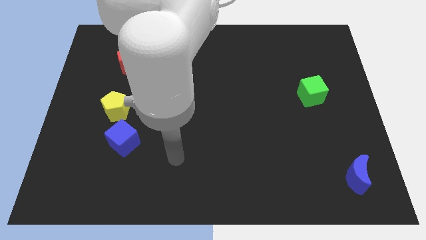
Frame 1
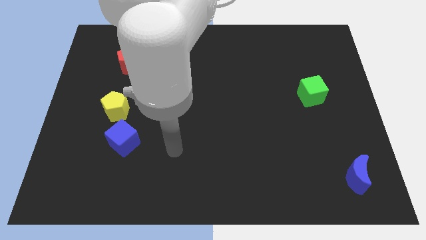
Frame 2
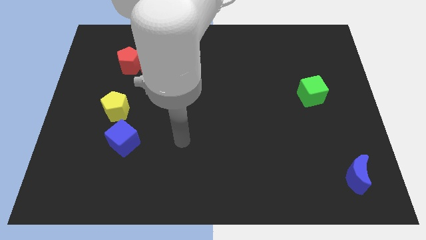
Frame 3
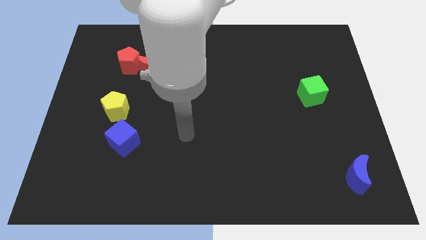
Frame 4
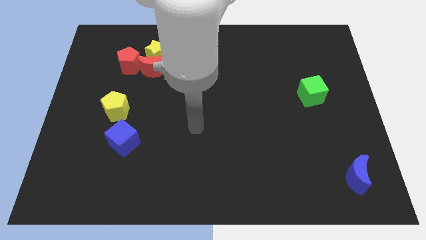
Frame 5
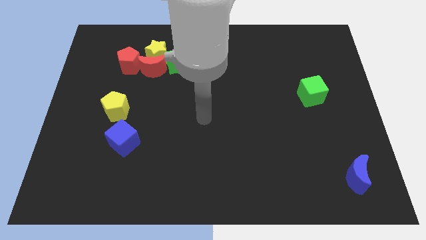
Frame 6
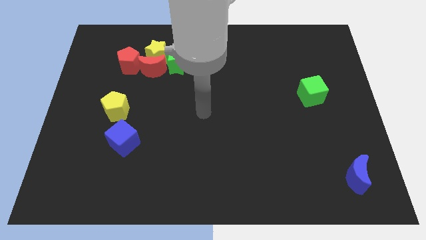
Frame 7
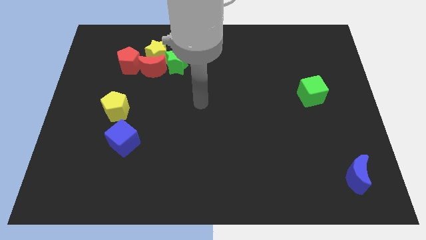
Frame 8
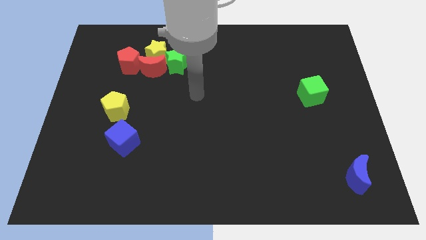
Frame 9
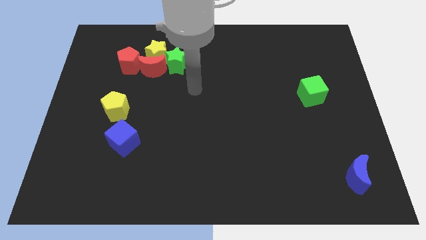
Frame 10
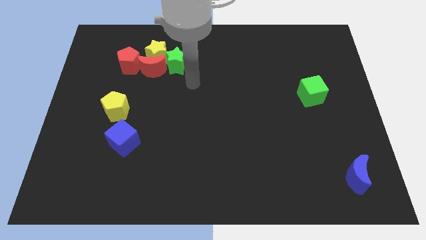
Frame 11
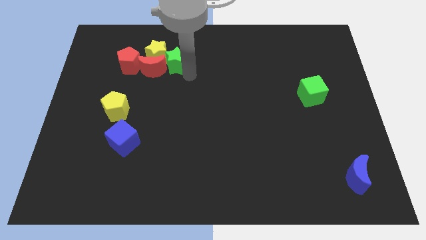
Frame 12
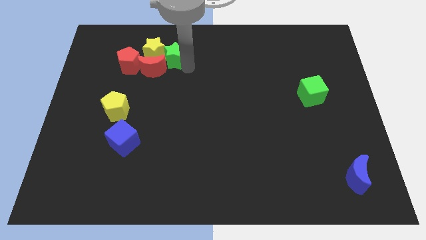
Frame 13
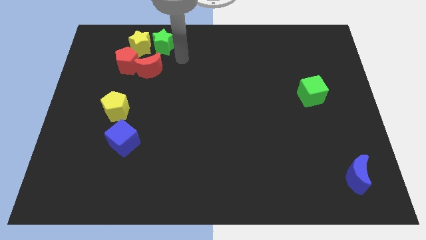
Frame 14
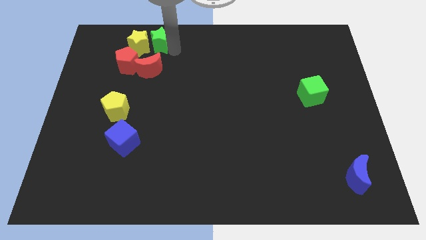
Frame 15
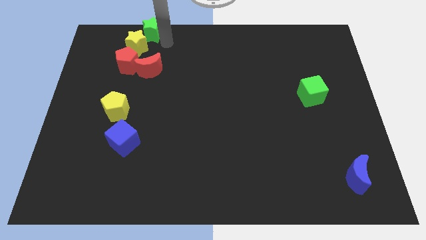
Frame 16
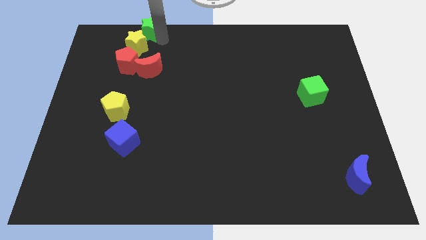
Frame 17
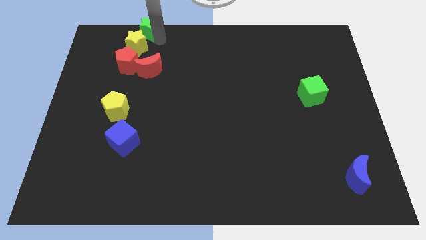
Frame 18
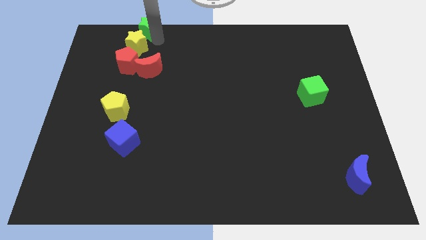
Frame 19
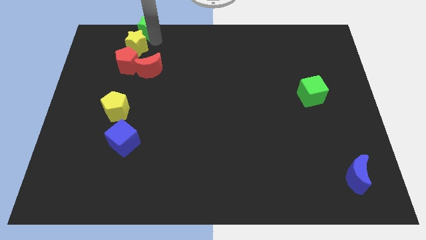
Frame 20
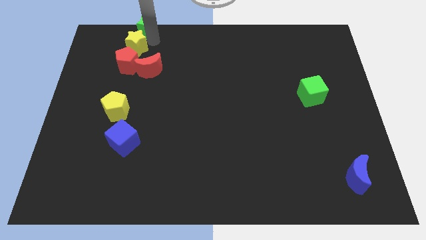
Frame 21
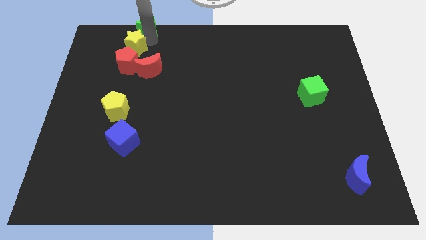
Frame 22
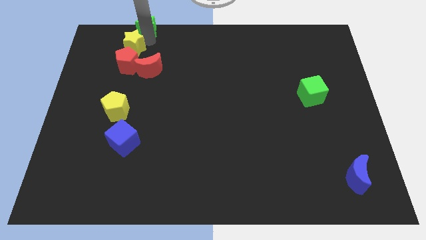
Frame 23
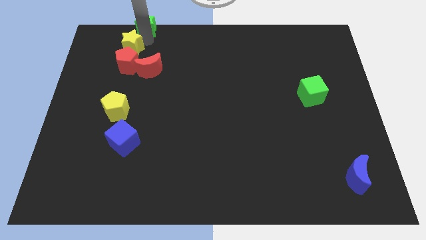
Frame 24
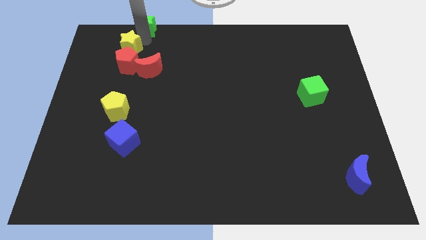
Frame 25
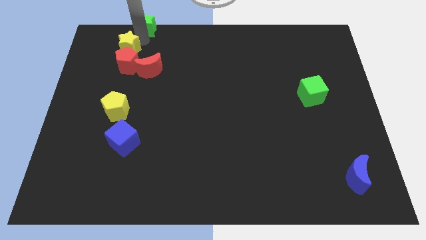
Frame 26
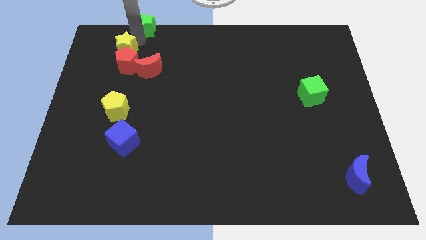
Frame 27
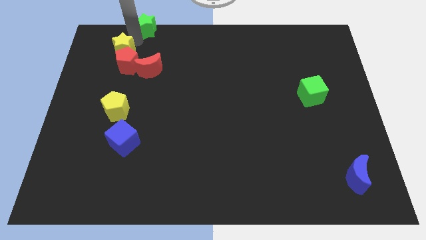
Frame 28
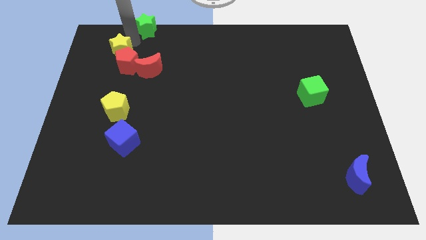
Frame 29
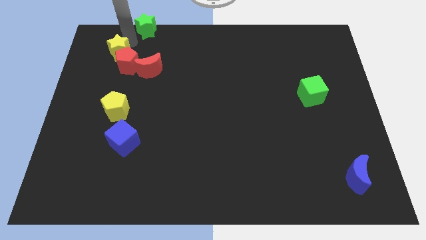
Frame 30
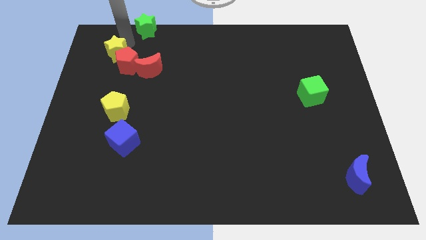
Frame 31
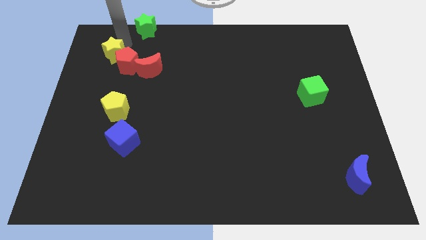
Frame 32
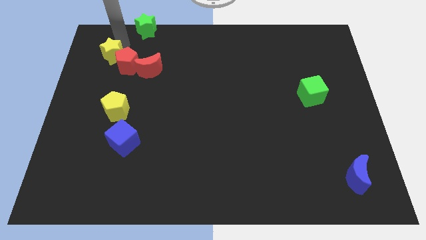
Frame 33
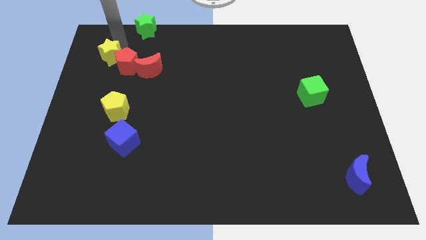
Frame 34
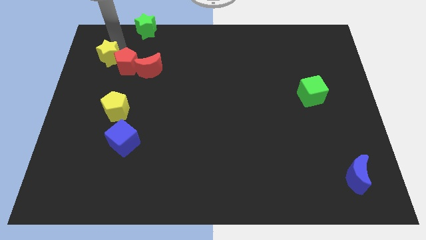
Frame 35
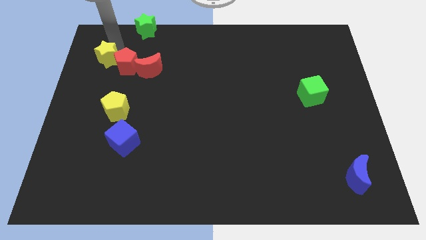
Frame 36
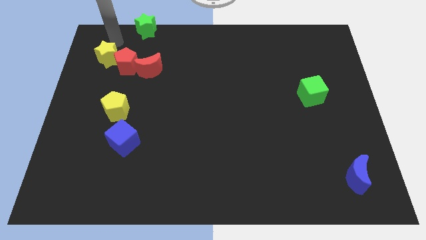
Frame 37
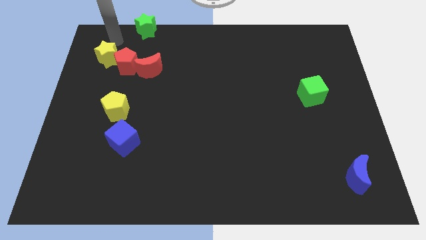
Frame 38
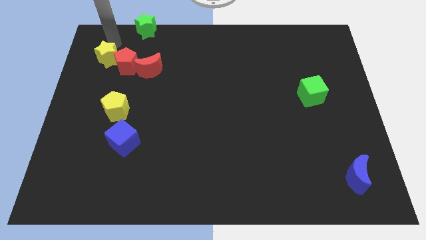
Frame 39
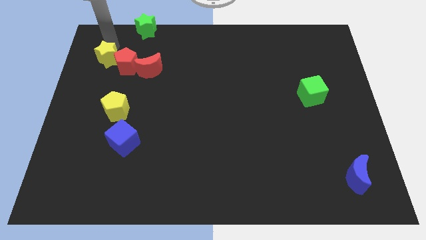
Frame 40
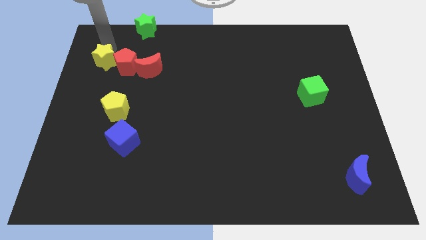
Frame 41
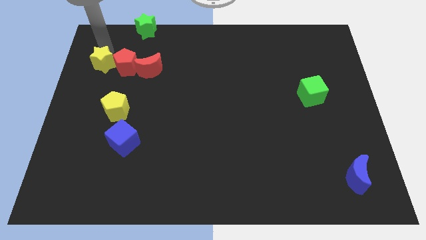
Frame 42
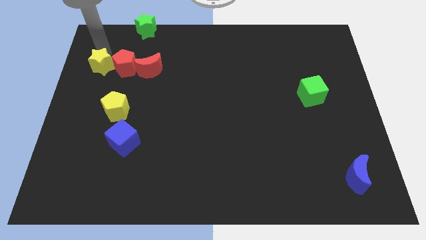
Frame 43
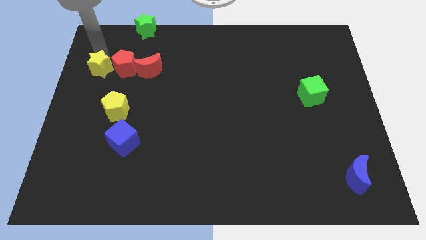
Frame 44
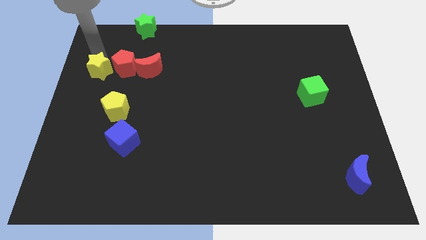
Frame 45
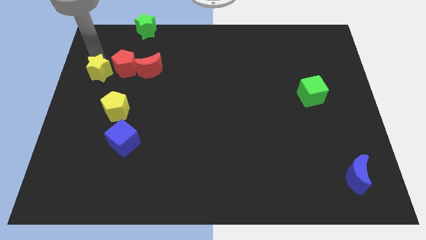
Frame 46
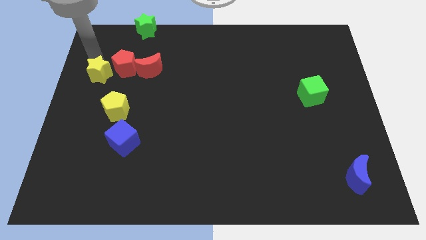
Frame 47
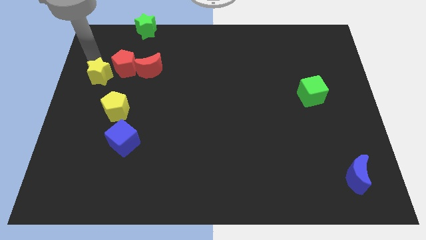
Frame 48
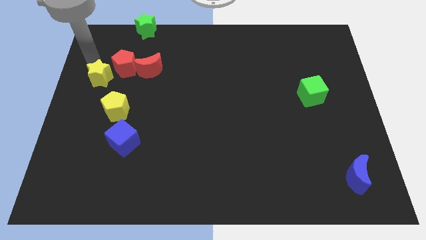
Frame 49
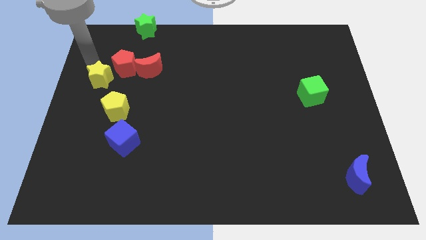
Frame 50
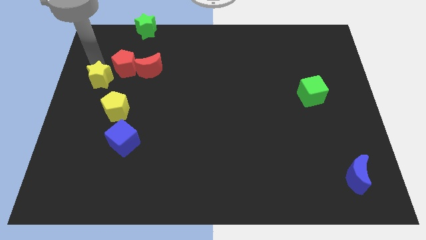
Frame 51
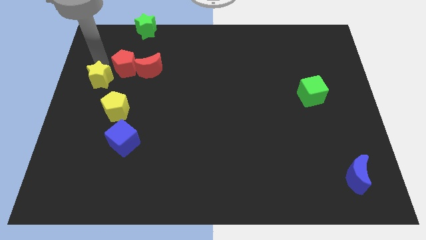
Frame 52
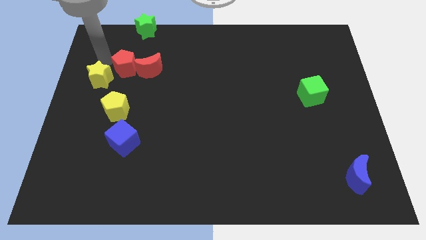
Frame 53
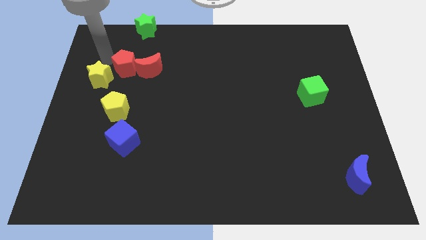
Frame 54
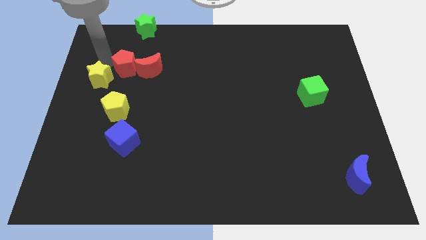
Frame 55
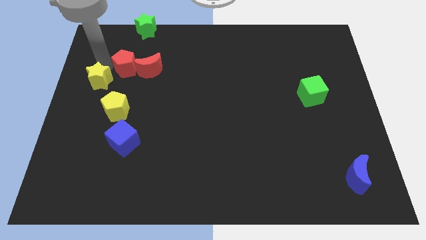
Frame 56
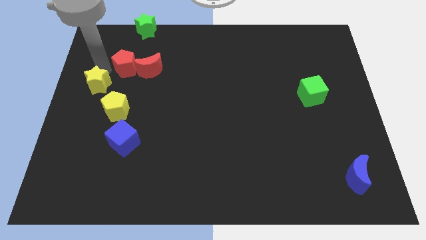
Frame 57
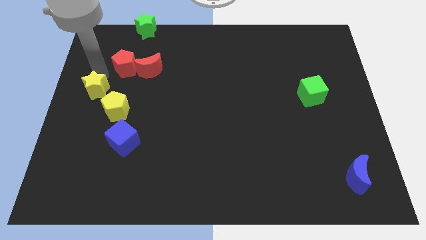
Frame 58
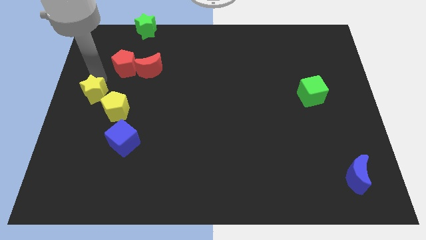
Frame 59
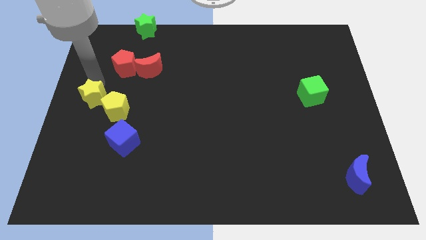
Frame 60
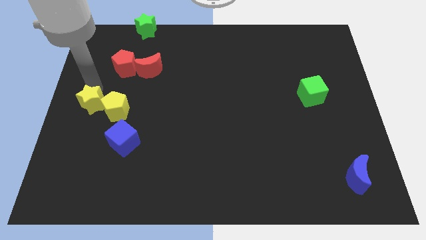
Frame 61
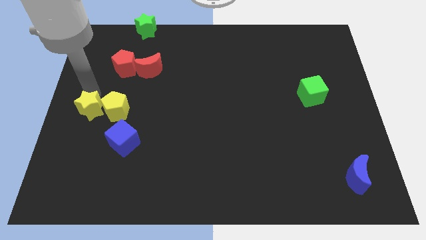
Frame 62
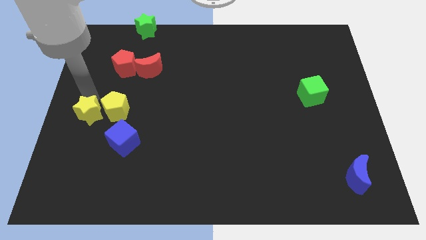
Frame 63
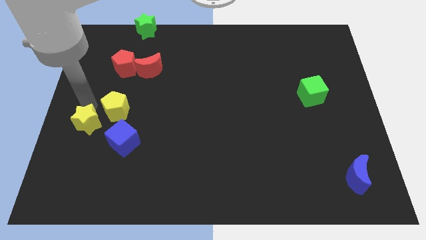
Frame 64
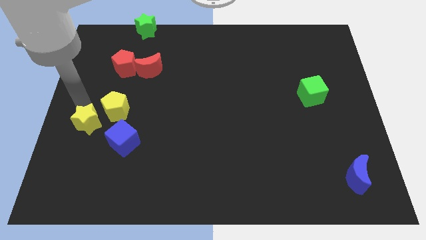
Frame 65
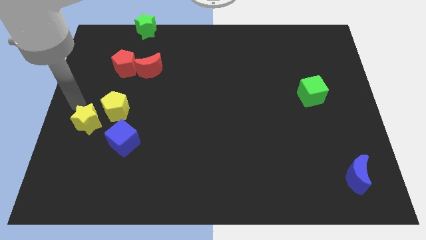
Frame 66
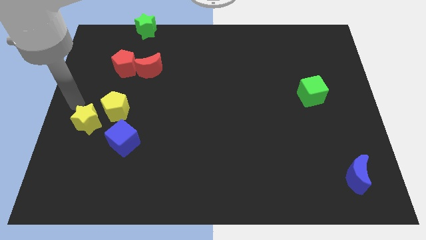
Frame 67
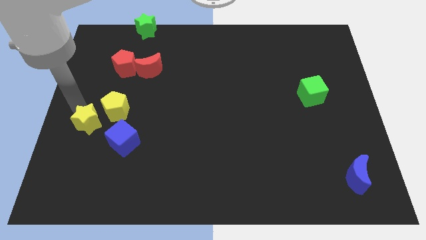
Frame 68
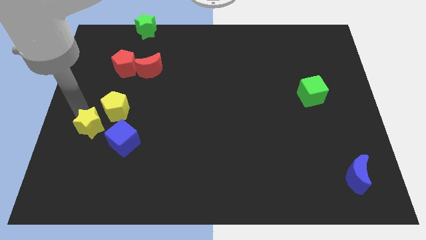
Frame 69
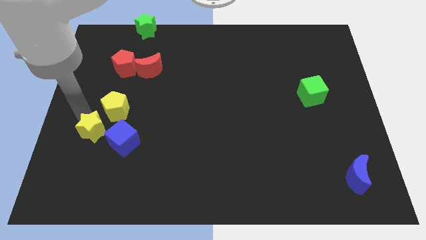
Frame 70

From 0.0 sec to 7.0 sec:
put the yellow star below the yellow pentagon

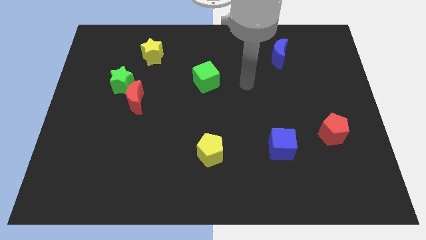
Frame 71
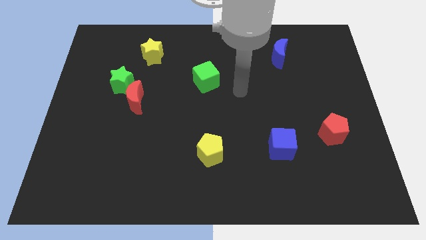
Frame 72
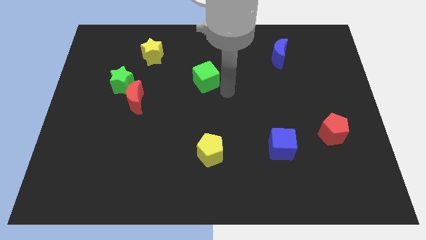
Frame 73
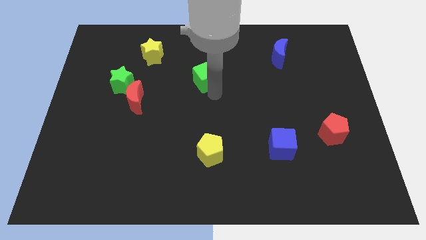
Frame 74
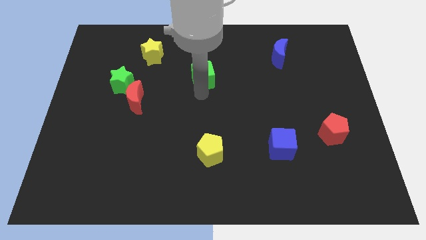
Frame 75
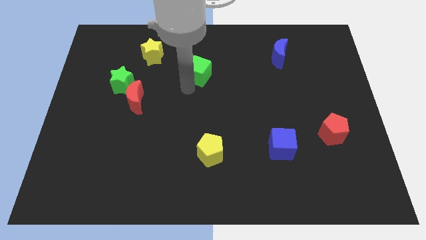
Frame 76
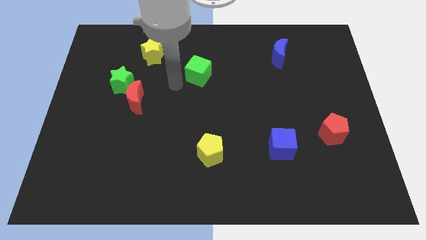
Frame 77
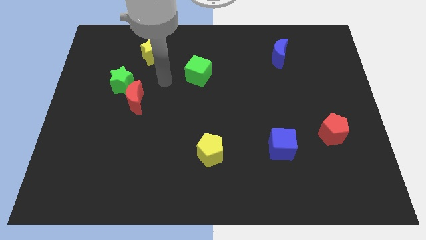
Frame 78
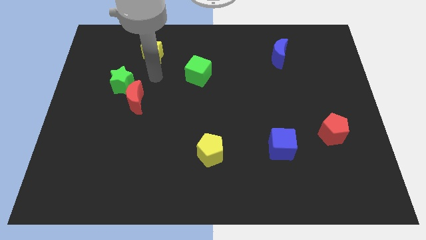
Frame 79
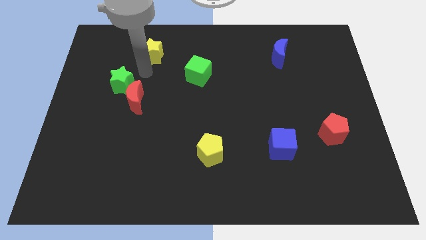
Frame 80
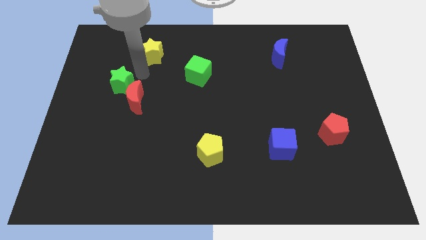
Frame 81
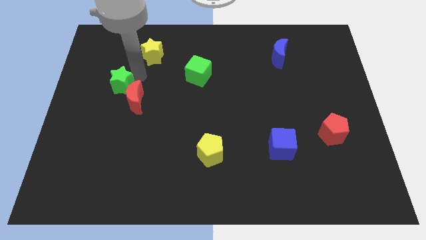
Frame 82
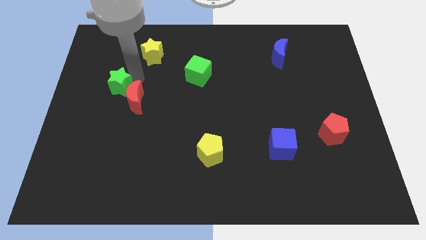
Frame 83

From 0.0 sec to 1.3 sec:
push the green star just left of the red moon
